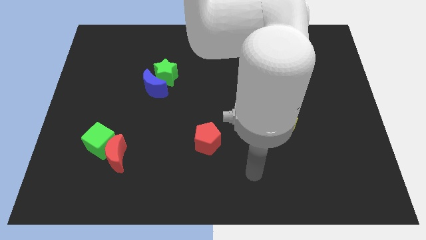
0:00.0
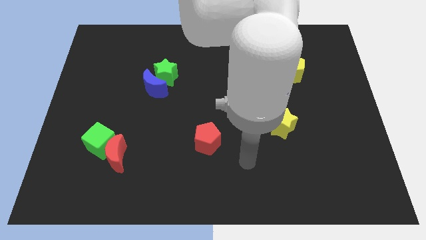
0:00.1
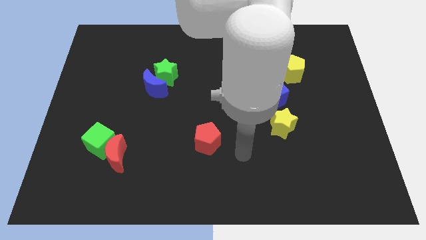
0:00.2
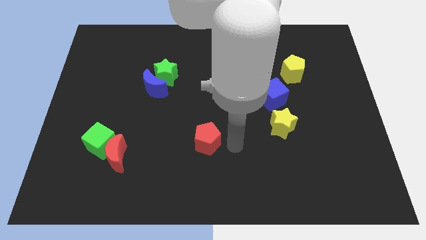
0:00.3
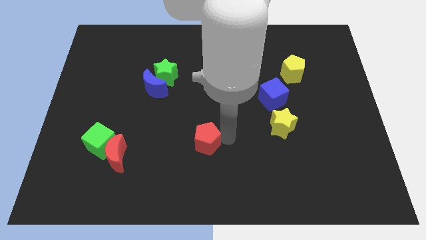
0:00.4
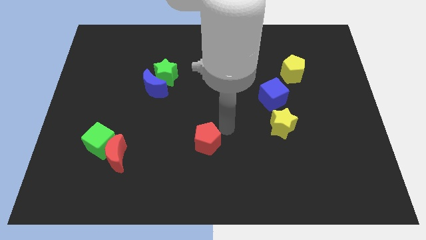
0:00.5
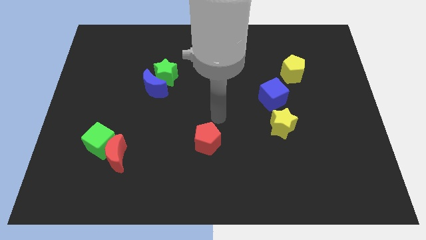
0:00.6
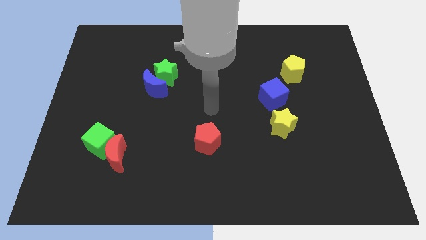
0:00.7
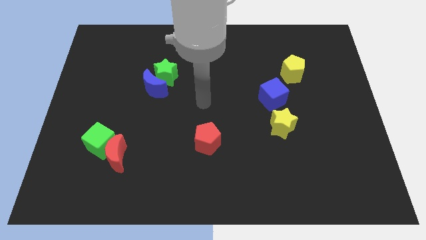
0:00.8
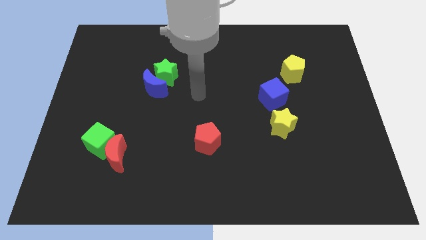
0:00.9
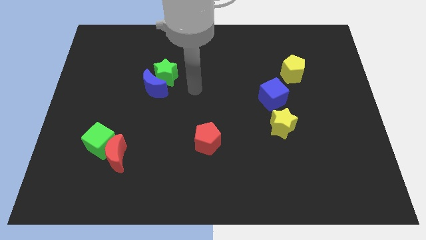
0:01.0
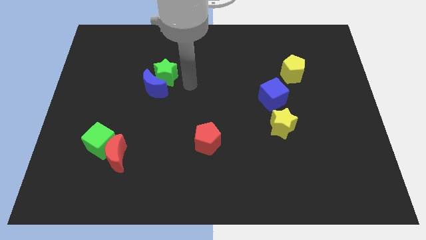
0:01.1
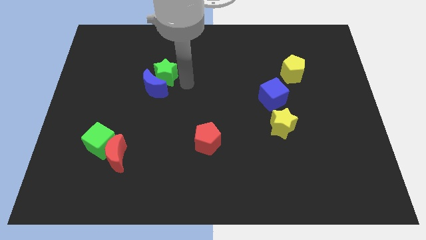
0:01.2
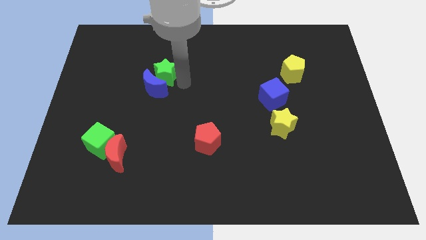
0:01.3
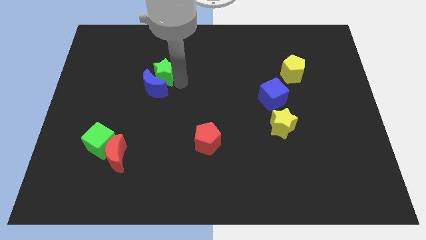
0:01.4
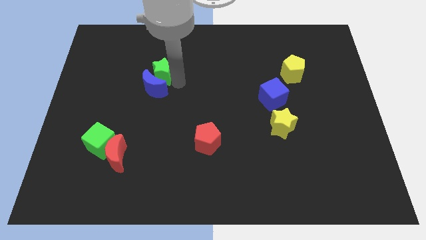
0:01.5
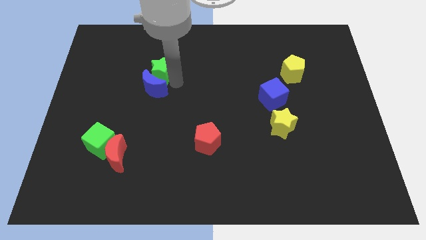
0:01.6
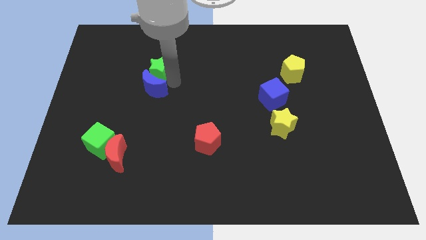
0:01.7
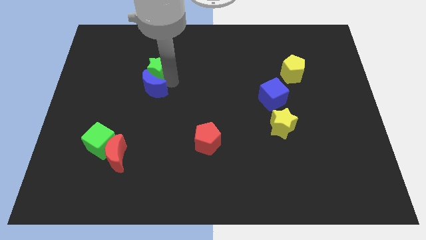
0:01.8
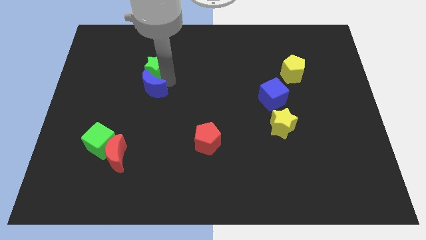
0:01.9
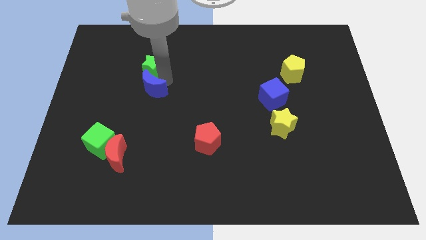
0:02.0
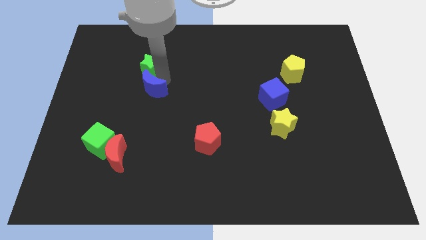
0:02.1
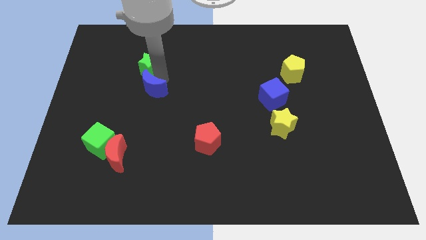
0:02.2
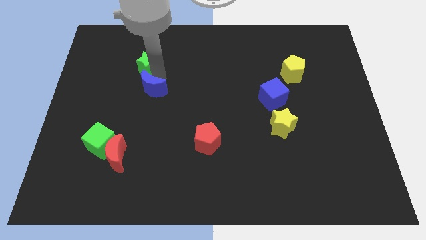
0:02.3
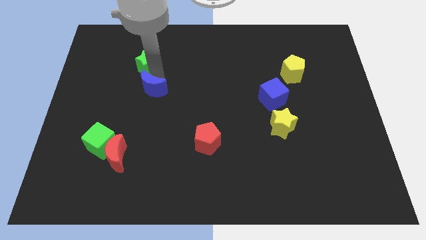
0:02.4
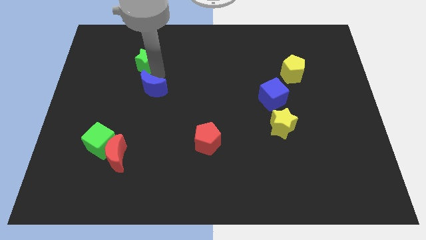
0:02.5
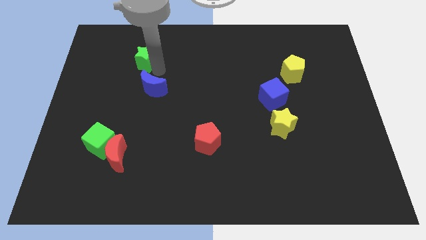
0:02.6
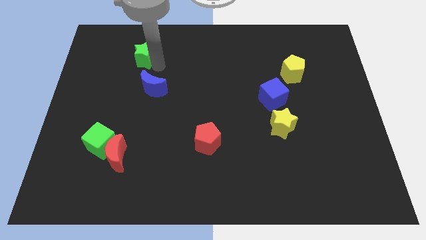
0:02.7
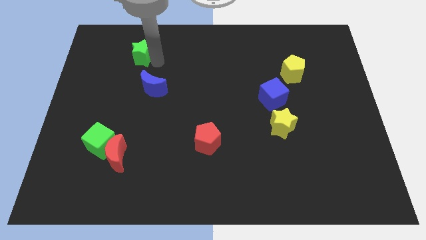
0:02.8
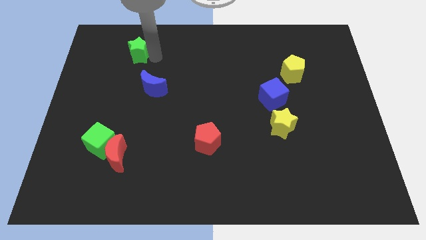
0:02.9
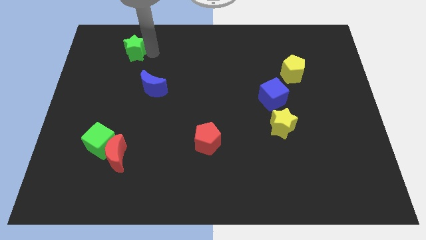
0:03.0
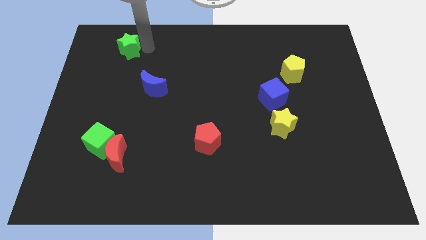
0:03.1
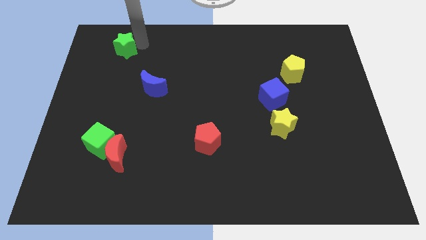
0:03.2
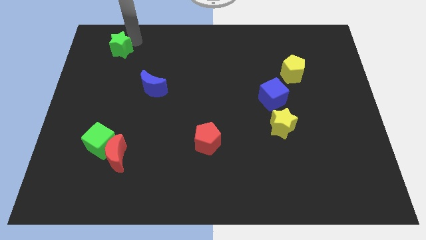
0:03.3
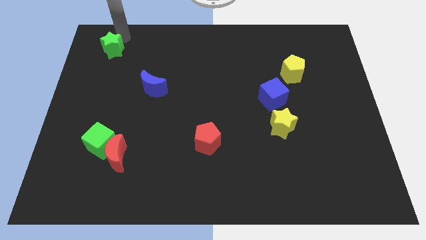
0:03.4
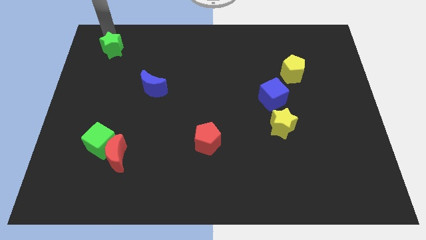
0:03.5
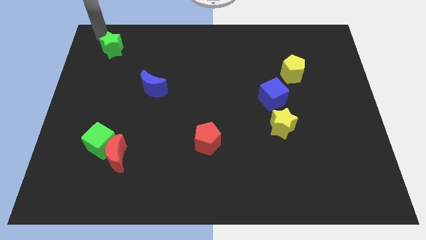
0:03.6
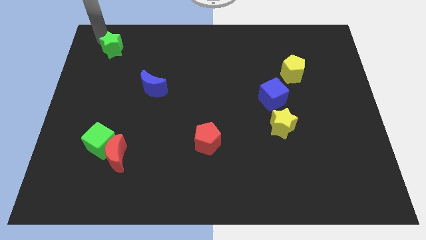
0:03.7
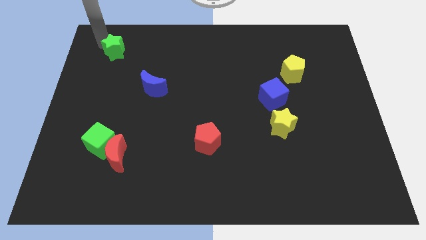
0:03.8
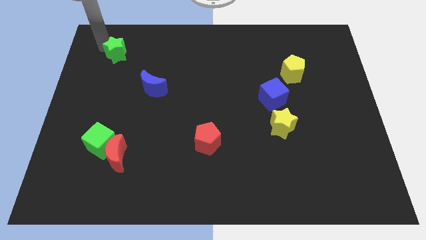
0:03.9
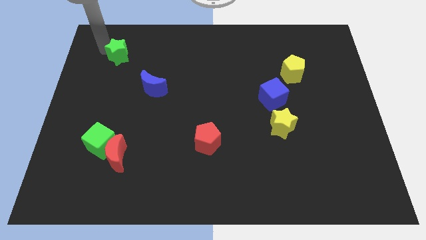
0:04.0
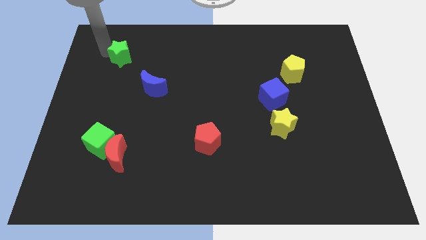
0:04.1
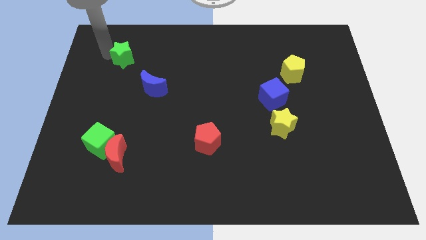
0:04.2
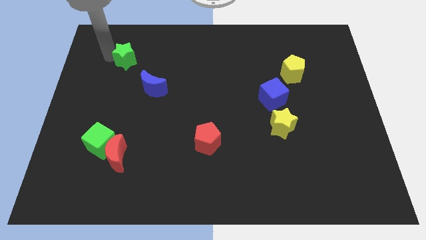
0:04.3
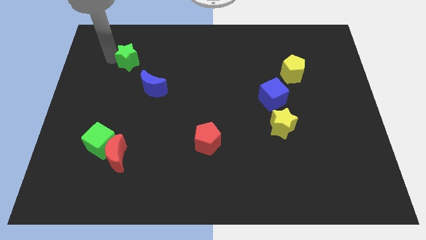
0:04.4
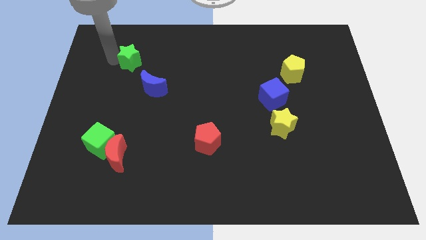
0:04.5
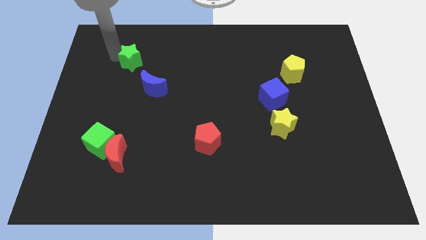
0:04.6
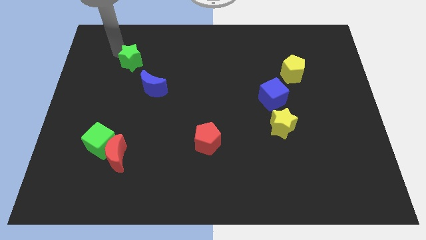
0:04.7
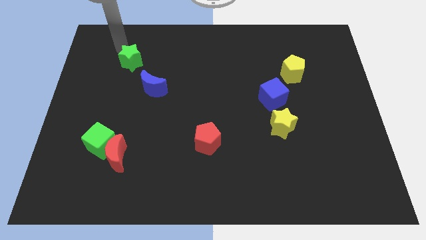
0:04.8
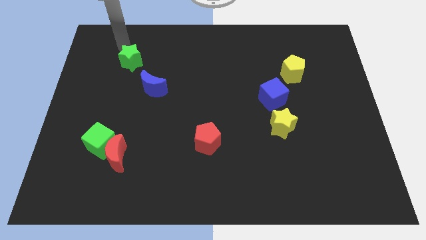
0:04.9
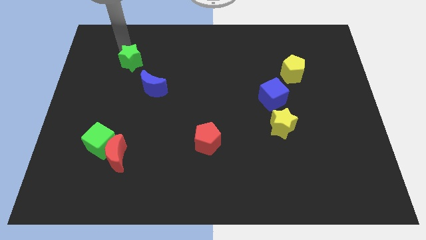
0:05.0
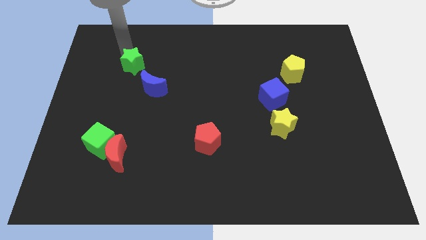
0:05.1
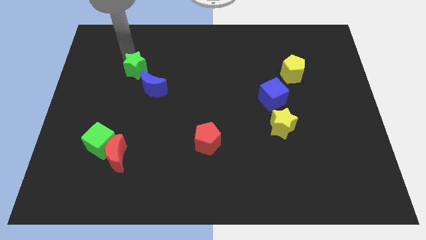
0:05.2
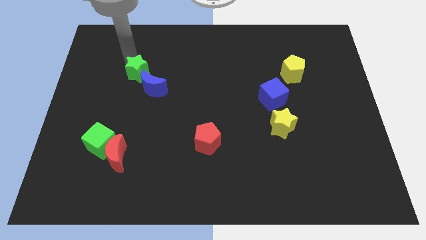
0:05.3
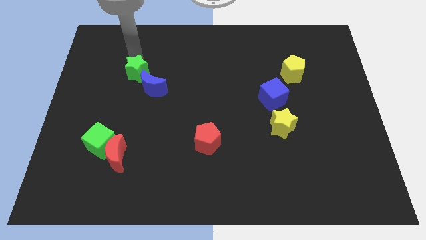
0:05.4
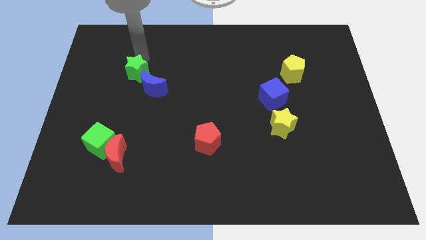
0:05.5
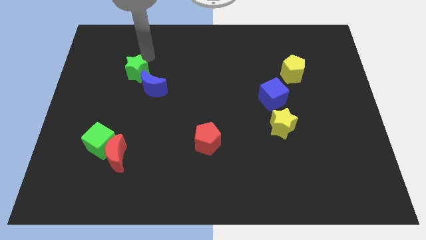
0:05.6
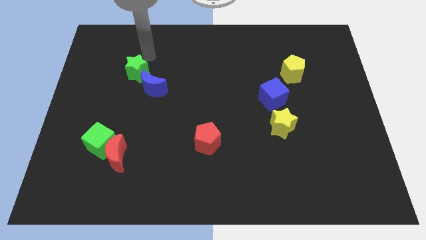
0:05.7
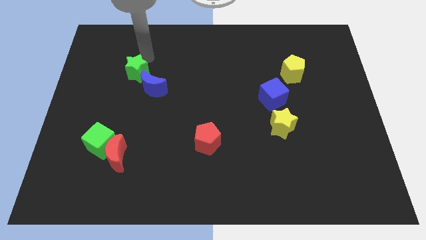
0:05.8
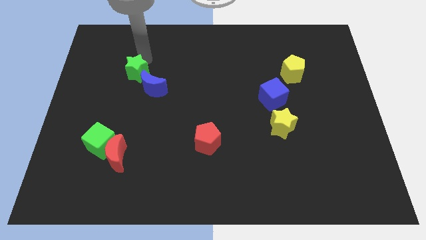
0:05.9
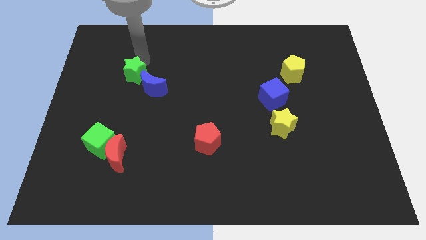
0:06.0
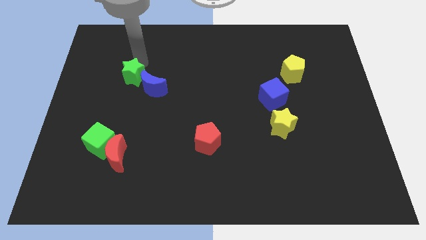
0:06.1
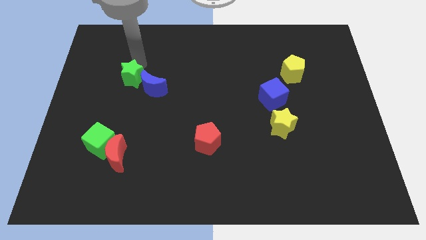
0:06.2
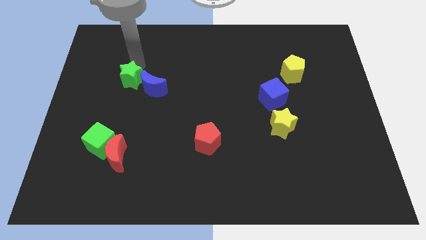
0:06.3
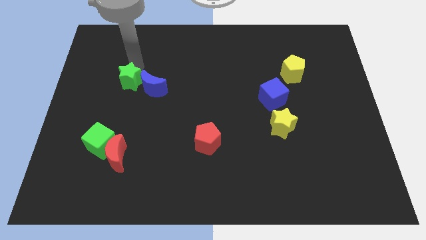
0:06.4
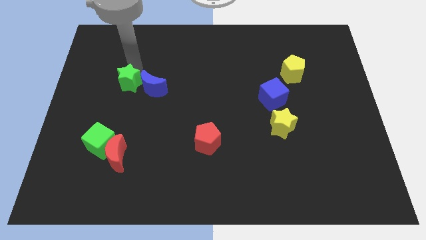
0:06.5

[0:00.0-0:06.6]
slide the green star a little diagonally down and to the left

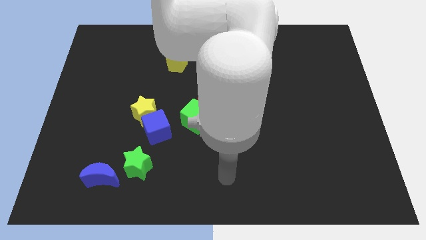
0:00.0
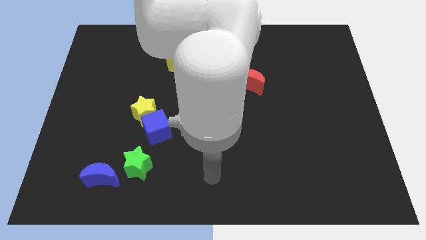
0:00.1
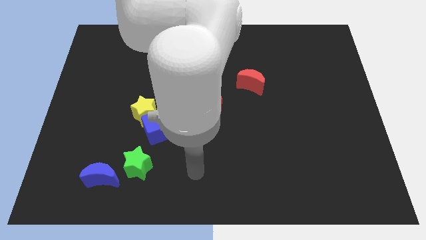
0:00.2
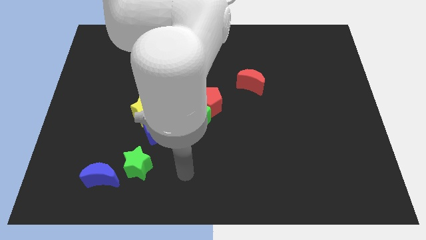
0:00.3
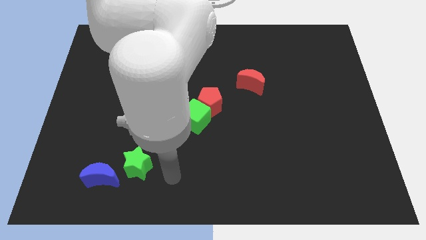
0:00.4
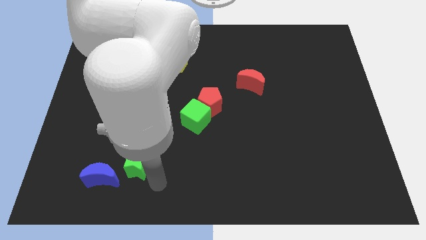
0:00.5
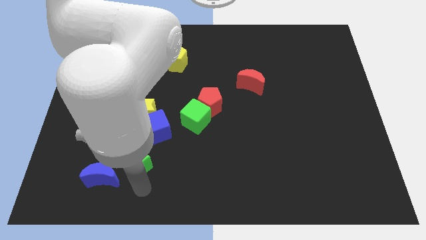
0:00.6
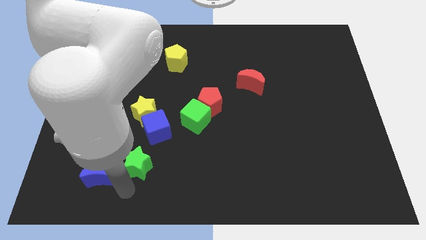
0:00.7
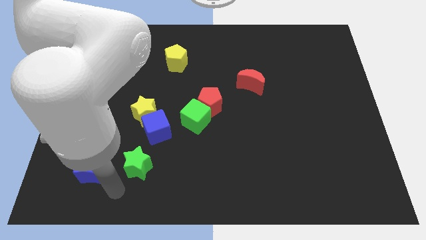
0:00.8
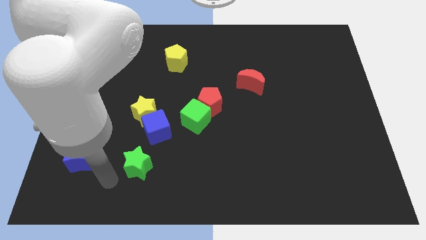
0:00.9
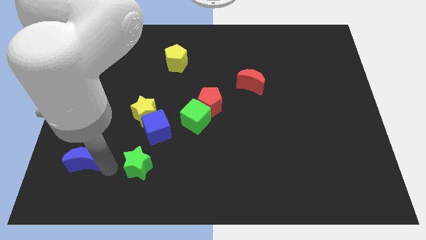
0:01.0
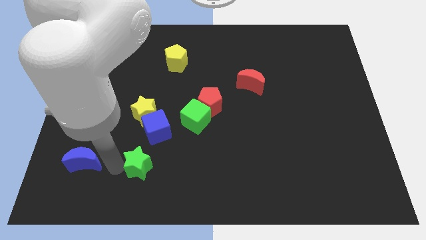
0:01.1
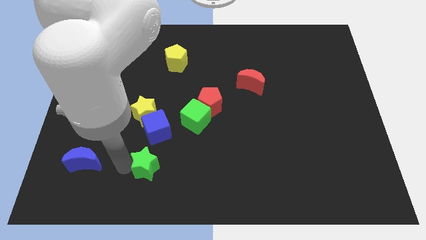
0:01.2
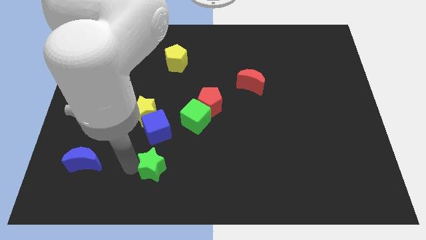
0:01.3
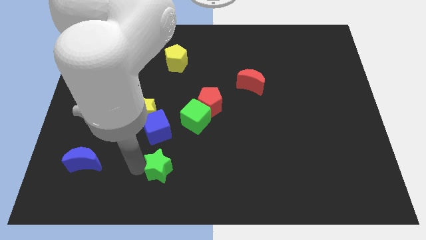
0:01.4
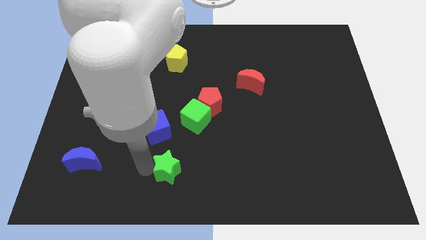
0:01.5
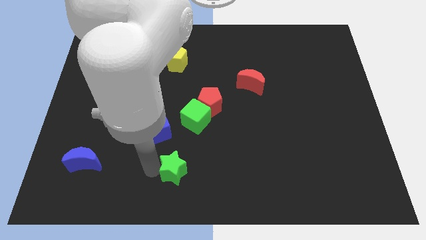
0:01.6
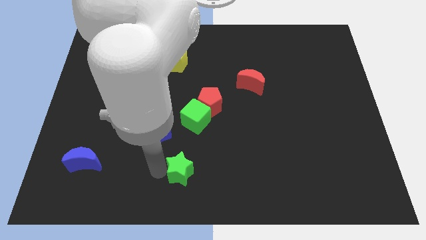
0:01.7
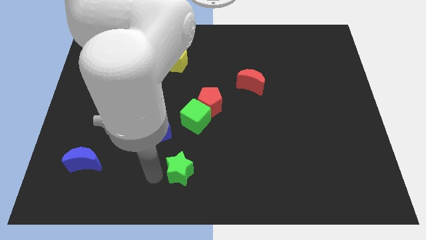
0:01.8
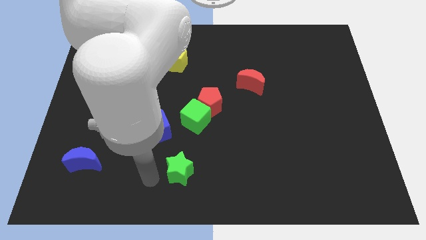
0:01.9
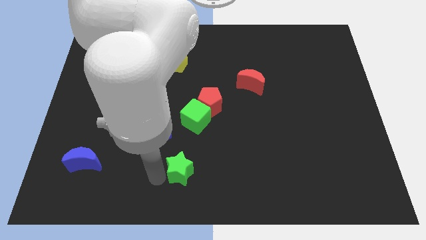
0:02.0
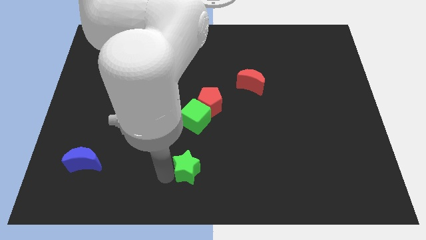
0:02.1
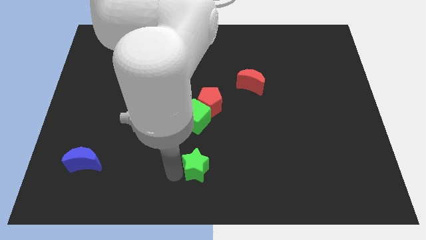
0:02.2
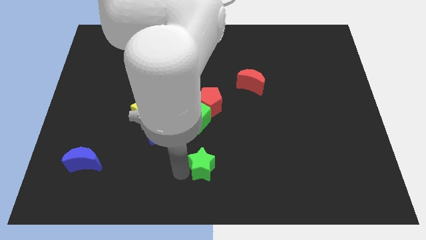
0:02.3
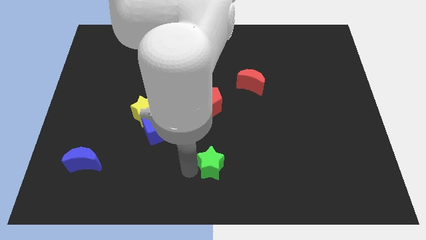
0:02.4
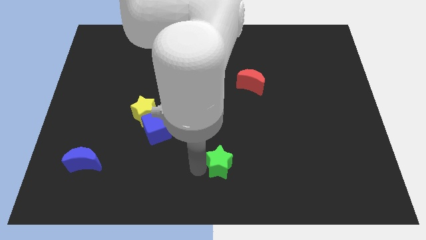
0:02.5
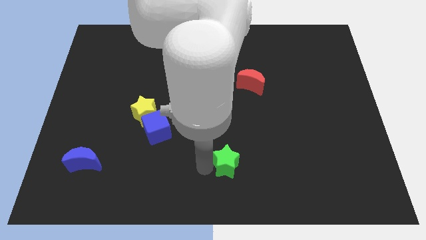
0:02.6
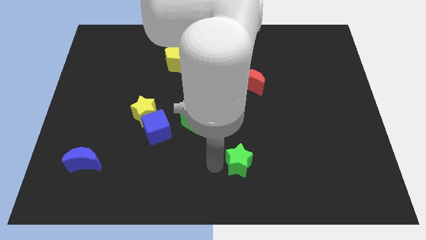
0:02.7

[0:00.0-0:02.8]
move the green star to the right
